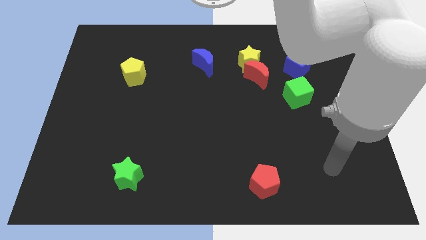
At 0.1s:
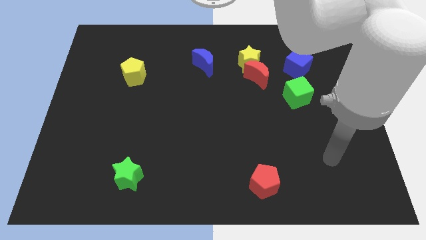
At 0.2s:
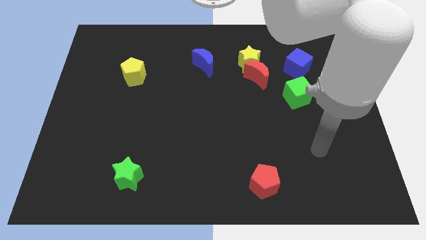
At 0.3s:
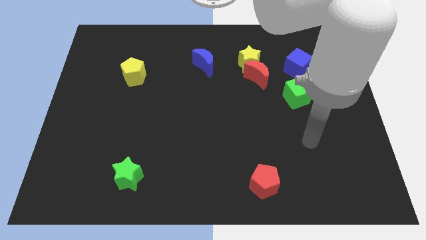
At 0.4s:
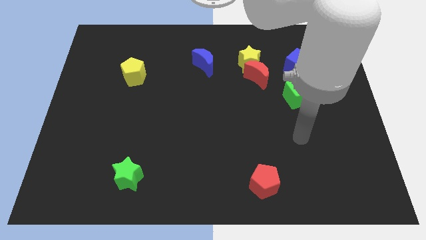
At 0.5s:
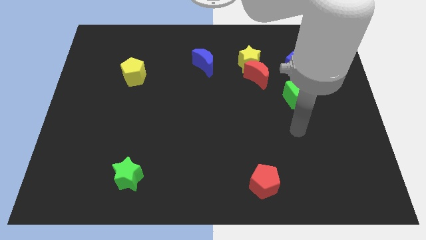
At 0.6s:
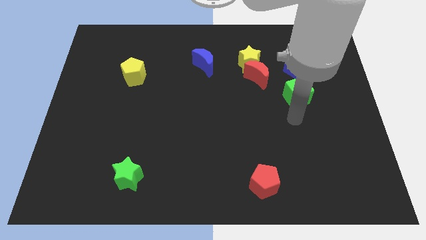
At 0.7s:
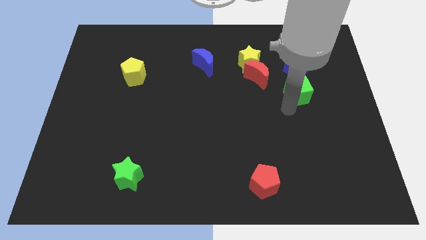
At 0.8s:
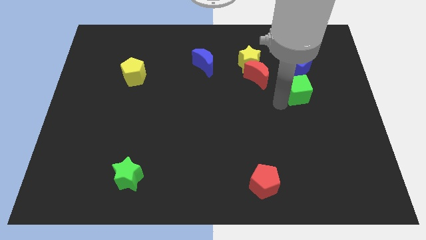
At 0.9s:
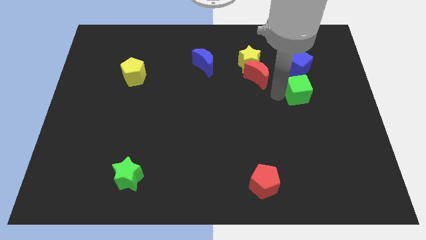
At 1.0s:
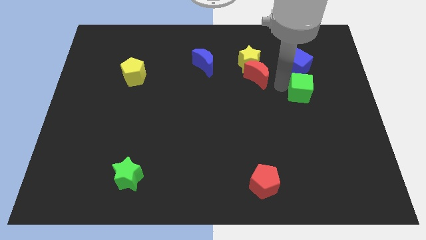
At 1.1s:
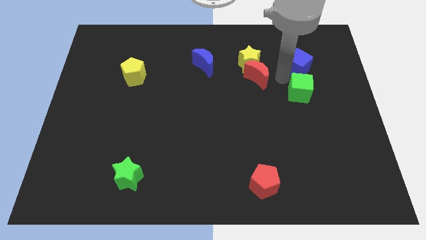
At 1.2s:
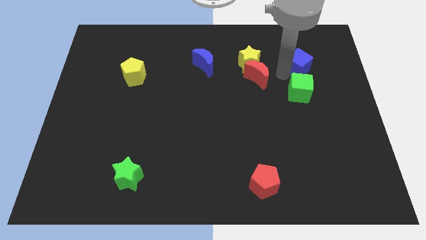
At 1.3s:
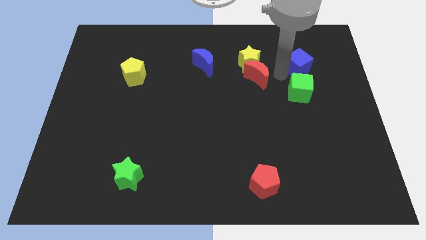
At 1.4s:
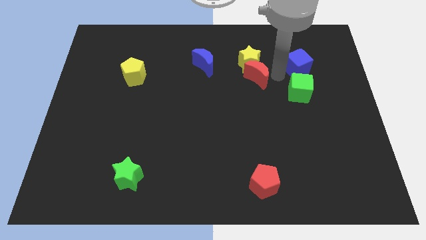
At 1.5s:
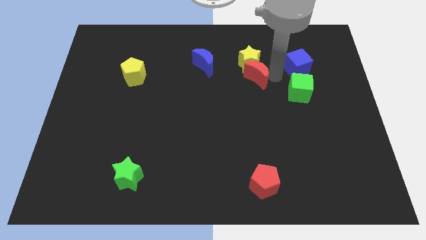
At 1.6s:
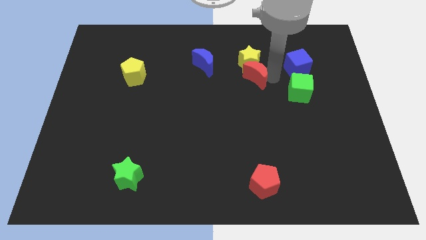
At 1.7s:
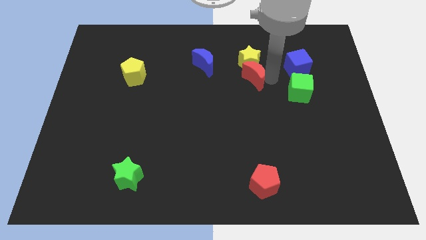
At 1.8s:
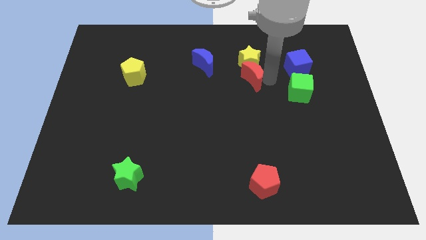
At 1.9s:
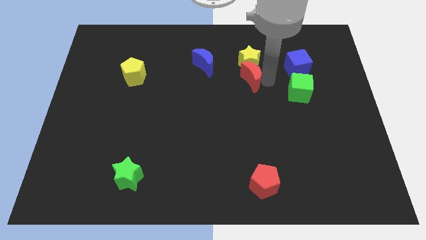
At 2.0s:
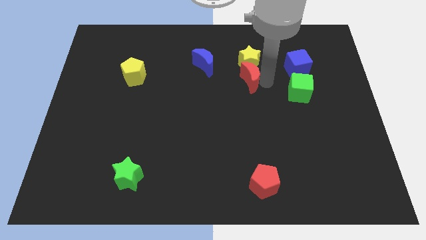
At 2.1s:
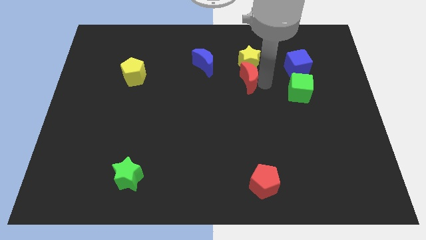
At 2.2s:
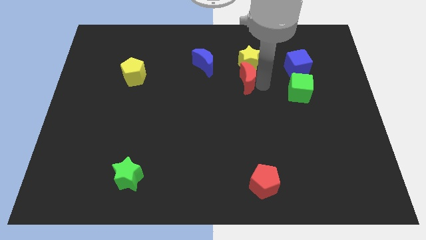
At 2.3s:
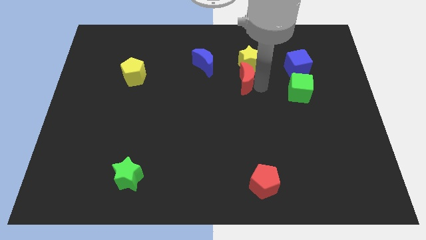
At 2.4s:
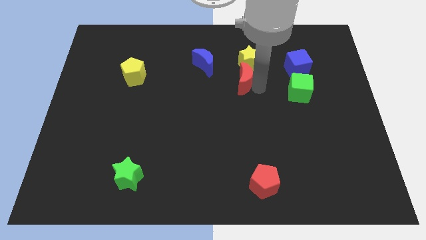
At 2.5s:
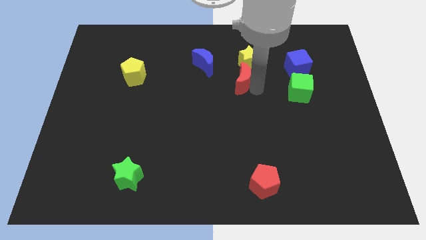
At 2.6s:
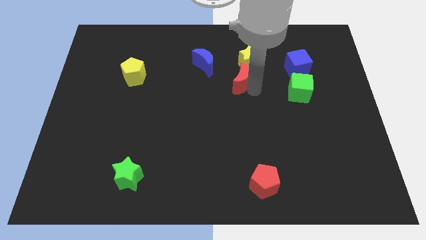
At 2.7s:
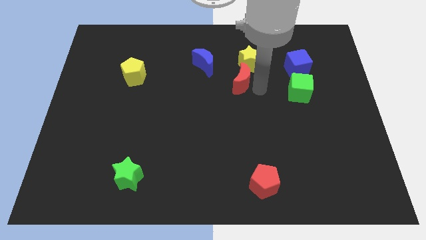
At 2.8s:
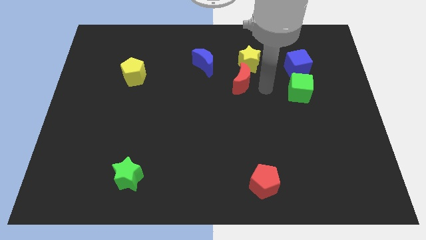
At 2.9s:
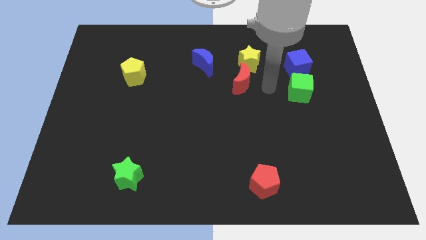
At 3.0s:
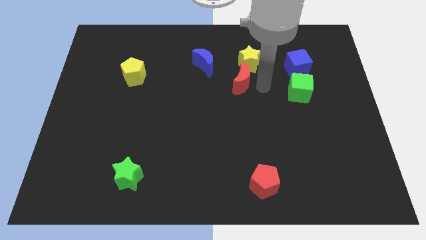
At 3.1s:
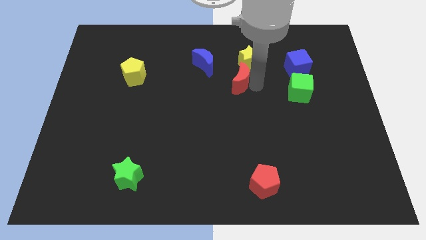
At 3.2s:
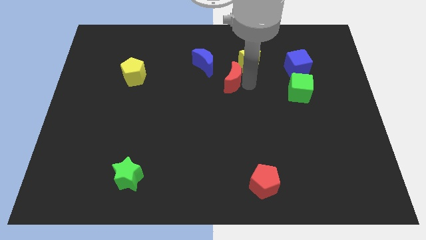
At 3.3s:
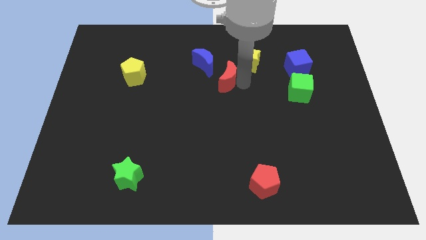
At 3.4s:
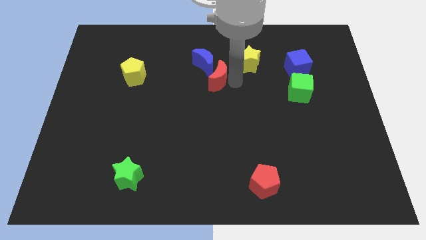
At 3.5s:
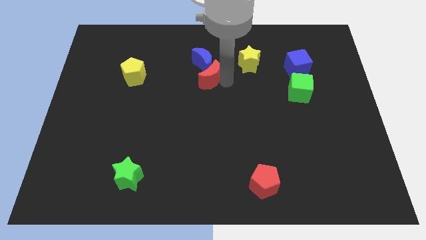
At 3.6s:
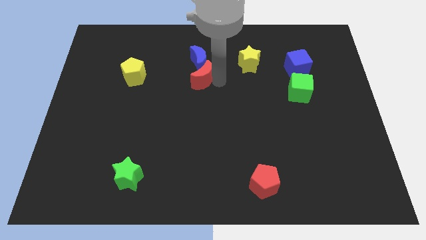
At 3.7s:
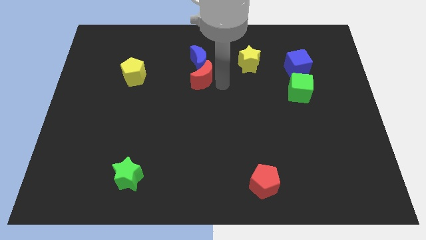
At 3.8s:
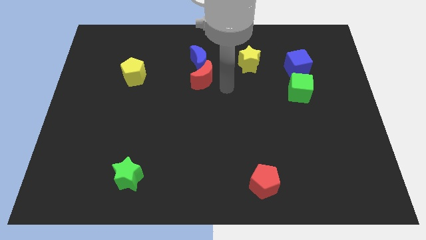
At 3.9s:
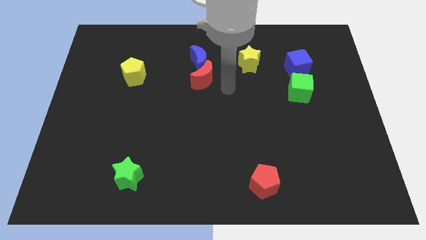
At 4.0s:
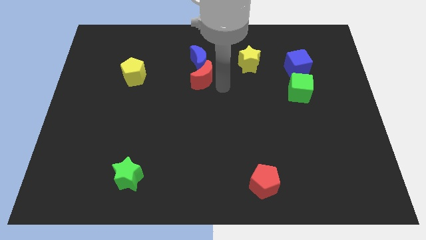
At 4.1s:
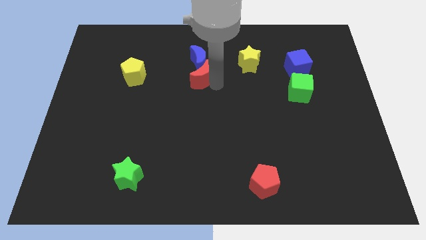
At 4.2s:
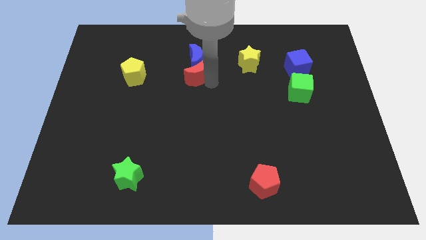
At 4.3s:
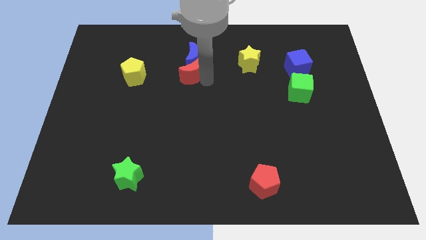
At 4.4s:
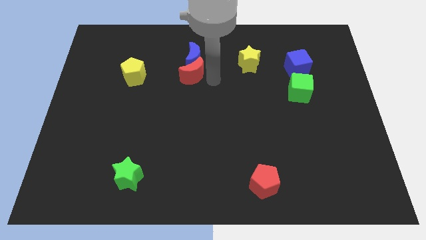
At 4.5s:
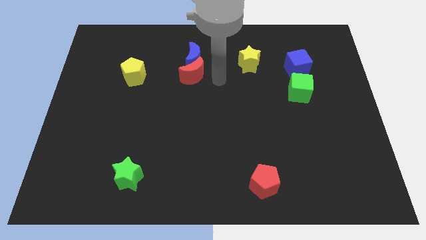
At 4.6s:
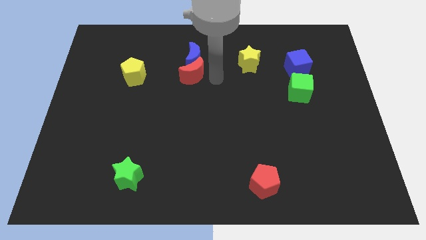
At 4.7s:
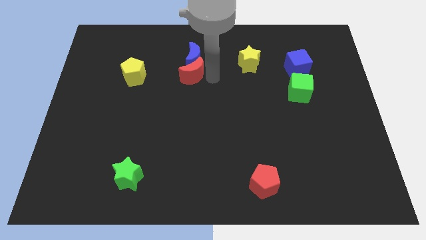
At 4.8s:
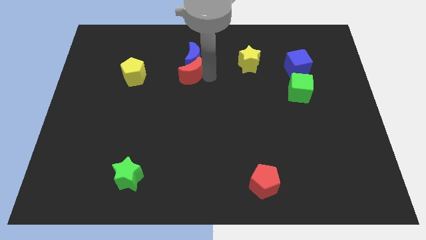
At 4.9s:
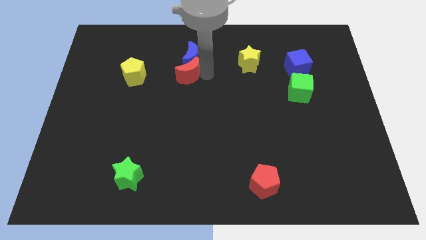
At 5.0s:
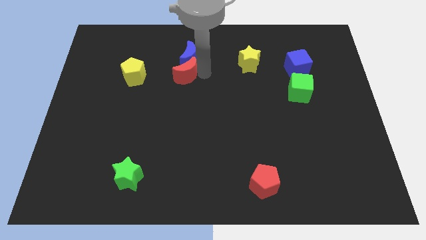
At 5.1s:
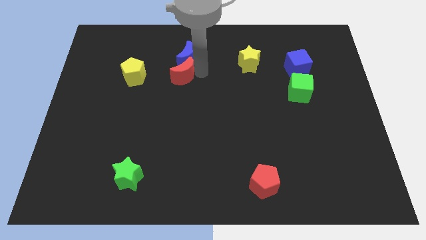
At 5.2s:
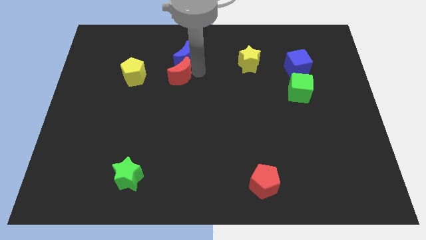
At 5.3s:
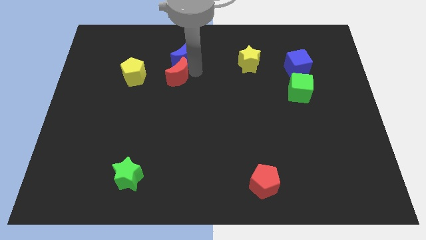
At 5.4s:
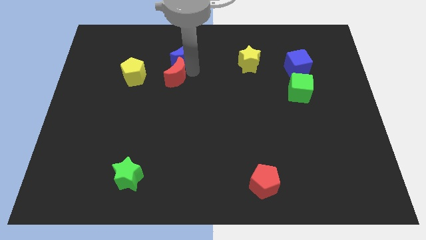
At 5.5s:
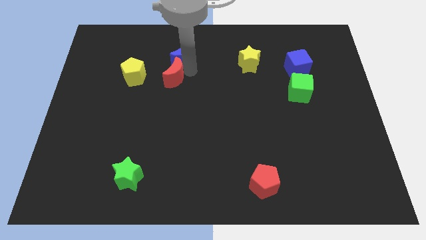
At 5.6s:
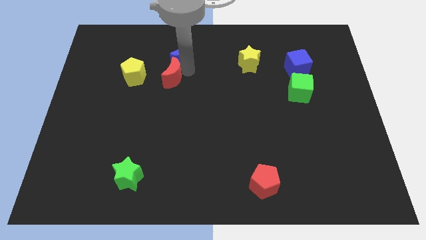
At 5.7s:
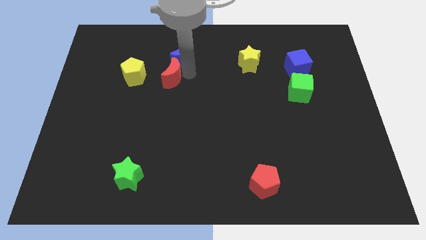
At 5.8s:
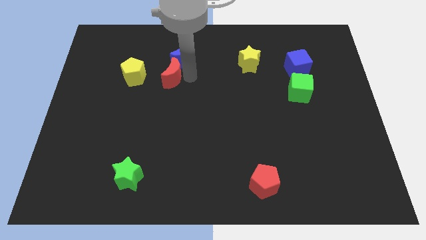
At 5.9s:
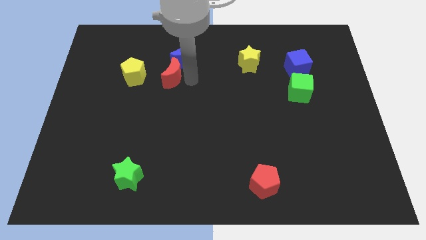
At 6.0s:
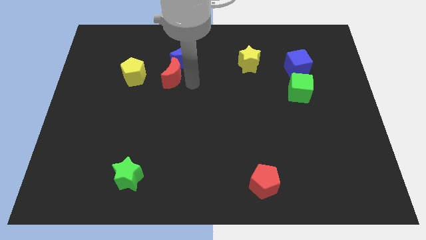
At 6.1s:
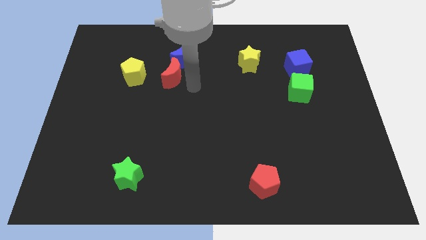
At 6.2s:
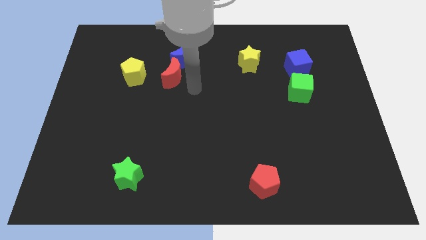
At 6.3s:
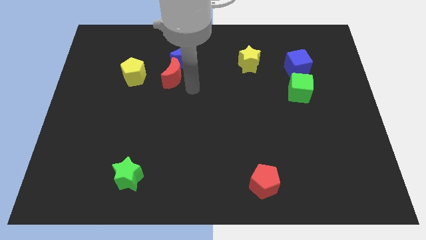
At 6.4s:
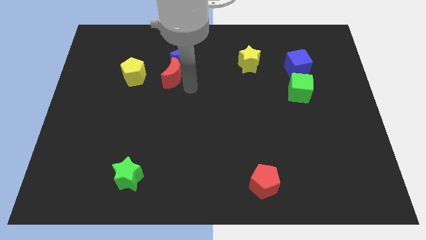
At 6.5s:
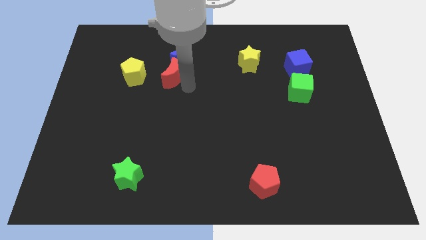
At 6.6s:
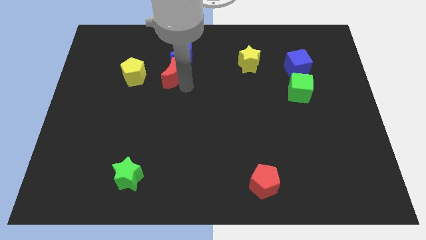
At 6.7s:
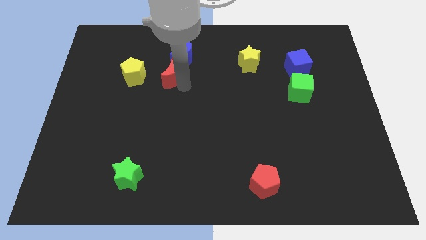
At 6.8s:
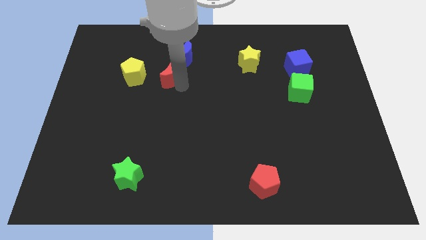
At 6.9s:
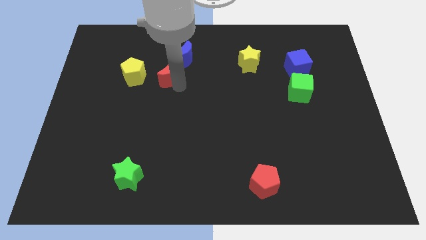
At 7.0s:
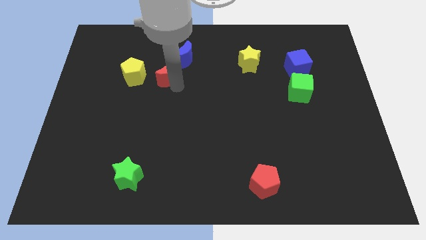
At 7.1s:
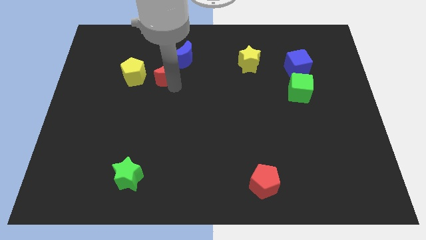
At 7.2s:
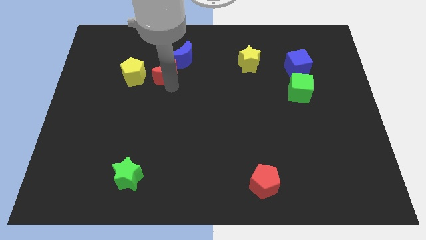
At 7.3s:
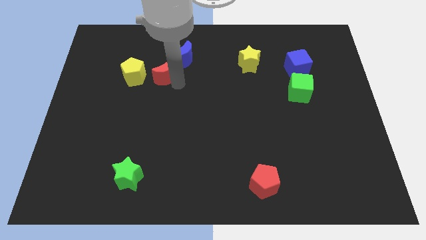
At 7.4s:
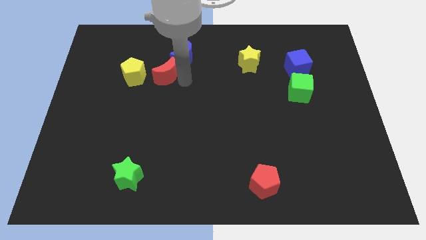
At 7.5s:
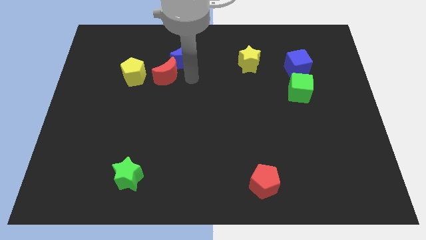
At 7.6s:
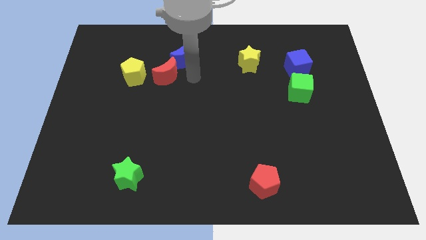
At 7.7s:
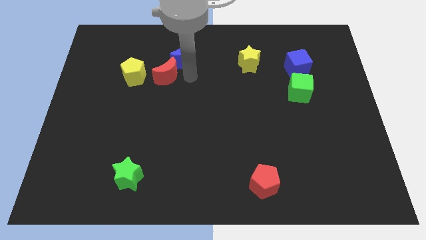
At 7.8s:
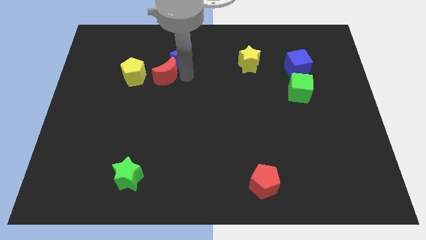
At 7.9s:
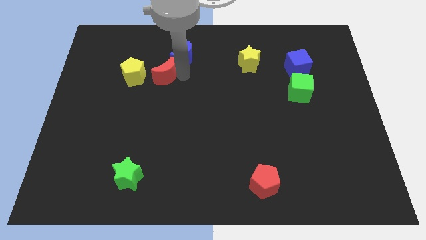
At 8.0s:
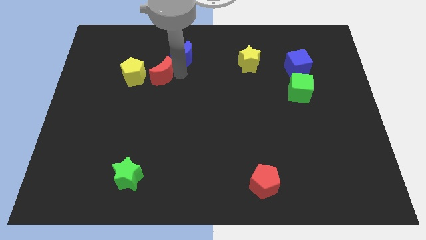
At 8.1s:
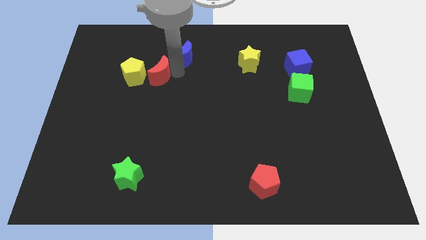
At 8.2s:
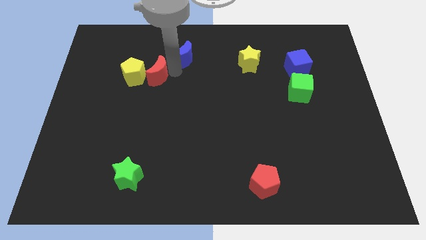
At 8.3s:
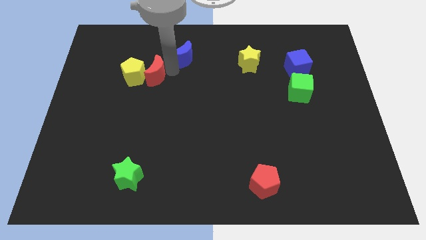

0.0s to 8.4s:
push the red moon close to the yellow pentagon
